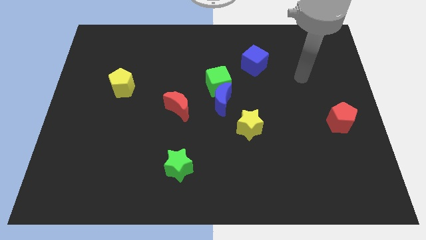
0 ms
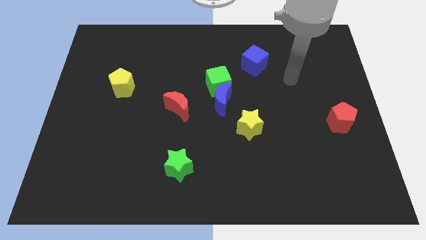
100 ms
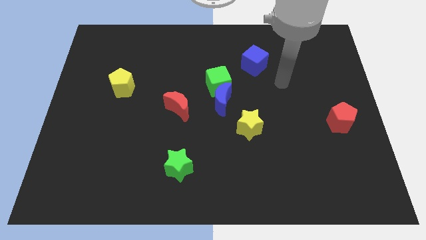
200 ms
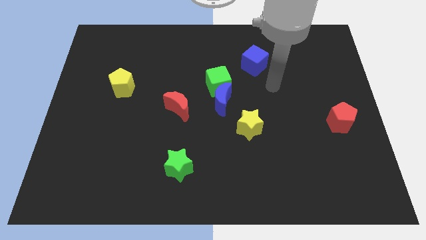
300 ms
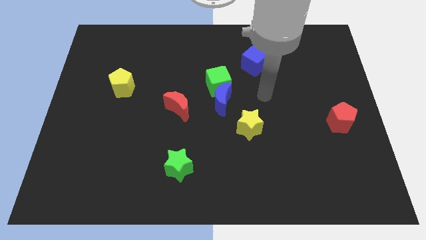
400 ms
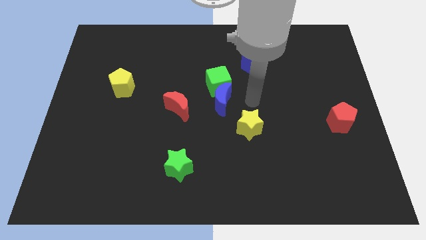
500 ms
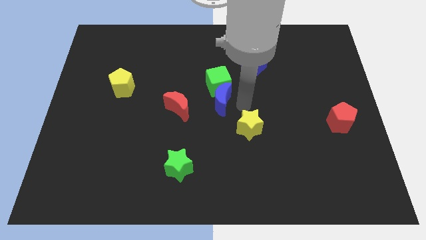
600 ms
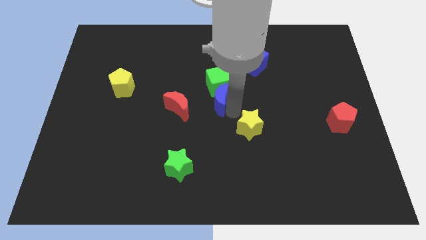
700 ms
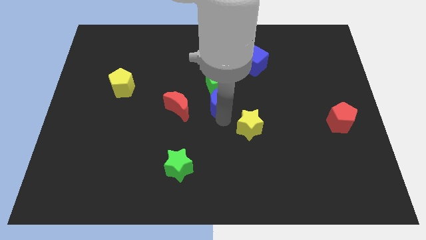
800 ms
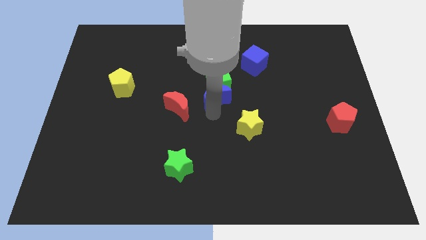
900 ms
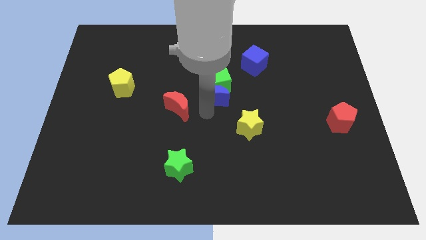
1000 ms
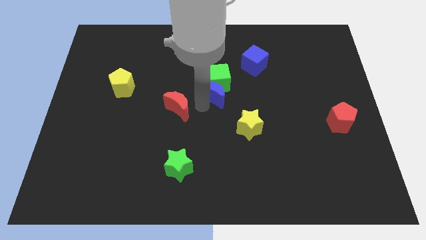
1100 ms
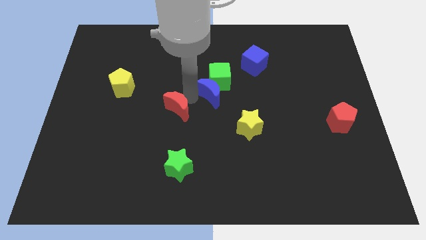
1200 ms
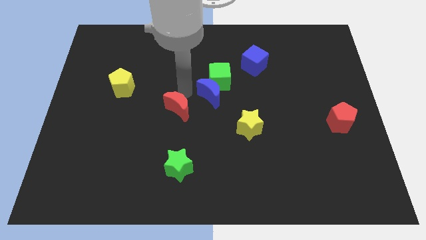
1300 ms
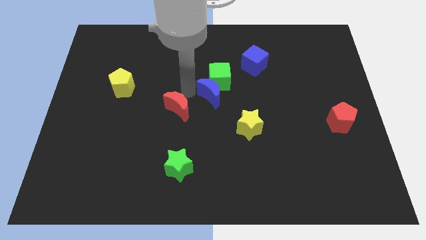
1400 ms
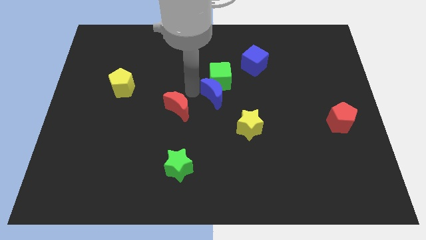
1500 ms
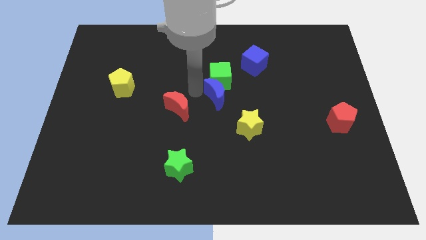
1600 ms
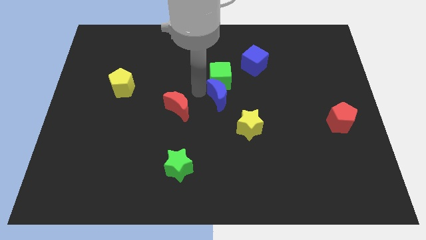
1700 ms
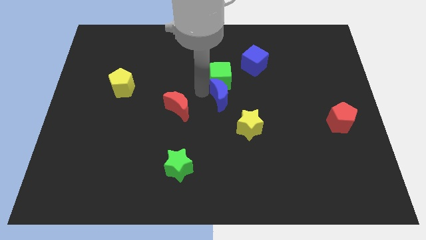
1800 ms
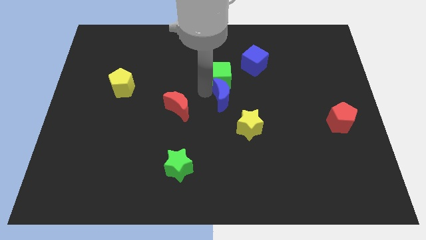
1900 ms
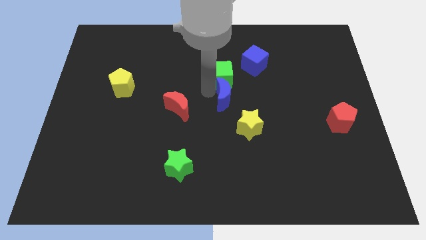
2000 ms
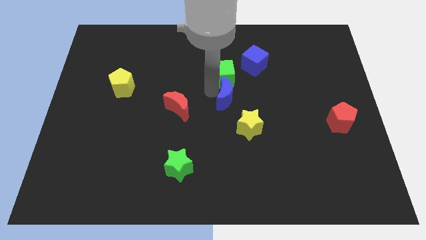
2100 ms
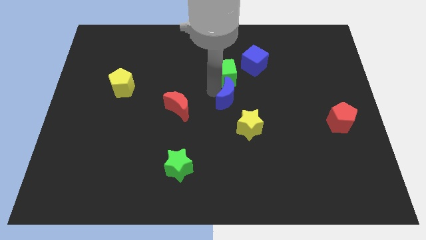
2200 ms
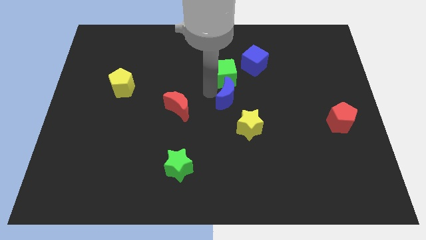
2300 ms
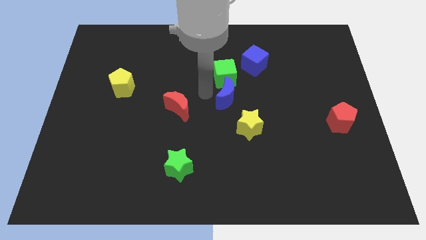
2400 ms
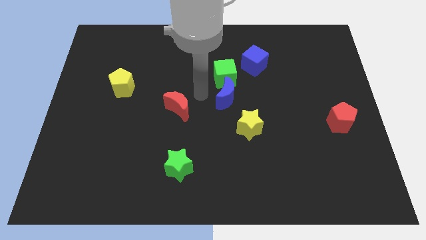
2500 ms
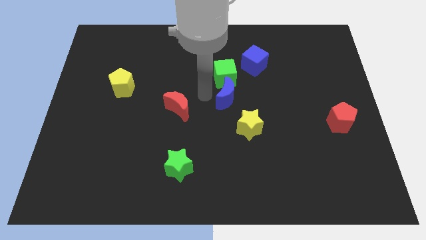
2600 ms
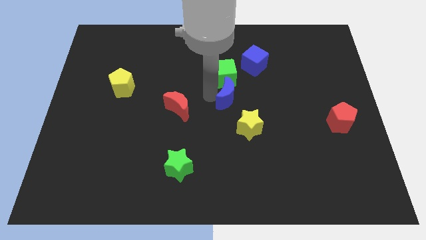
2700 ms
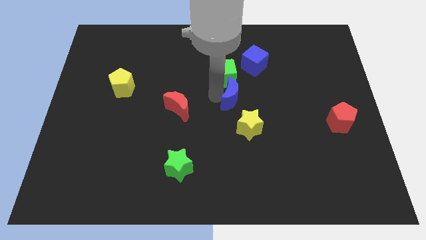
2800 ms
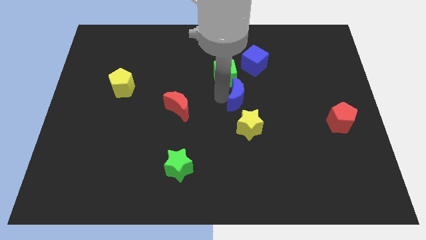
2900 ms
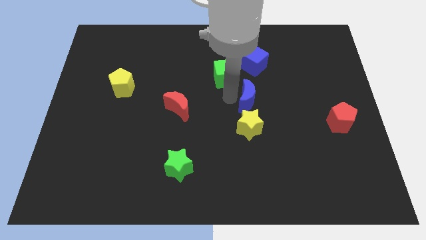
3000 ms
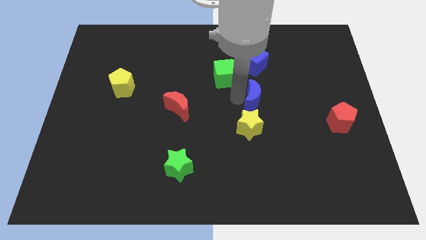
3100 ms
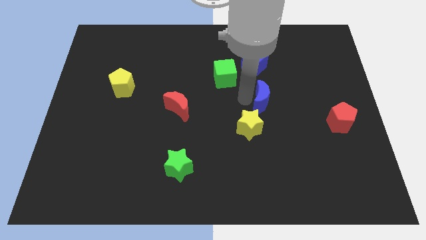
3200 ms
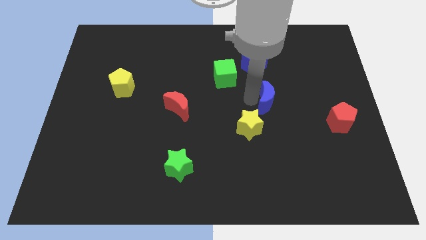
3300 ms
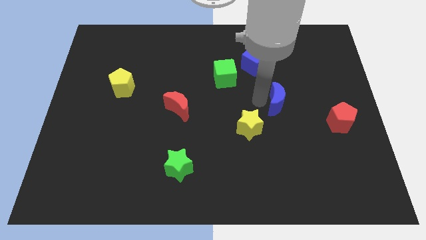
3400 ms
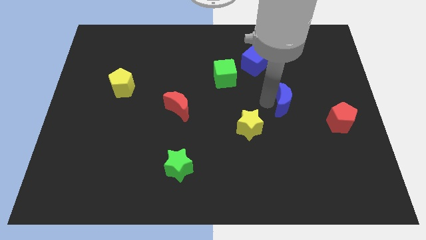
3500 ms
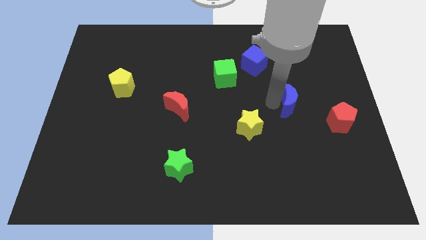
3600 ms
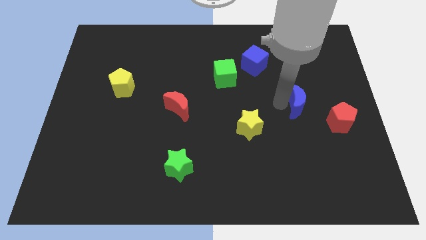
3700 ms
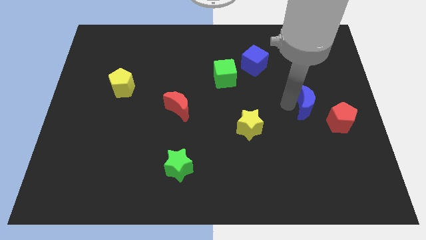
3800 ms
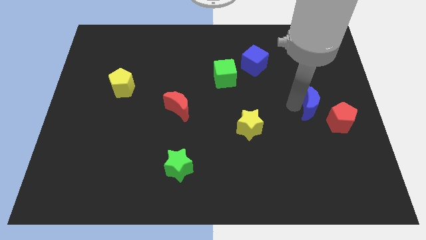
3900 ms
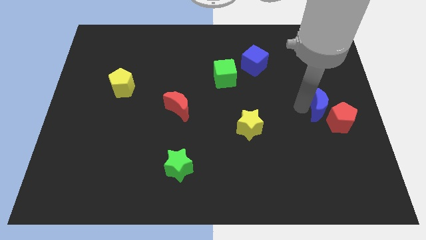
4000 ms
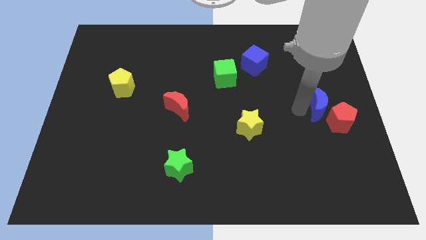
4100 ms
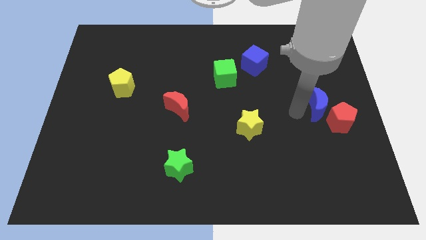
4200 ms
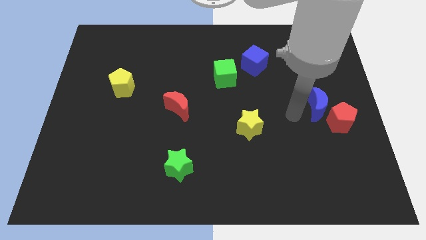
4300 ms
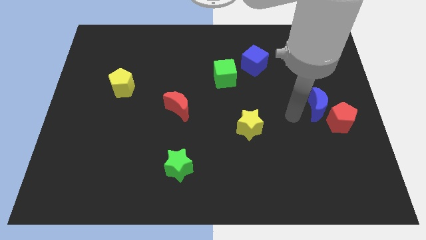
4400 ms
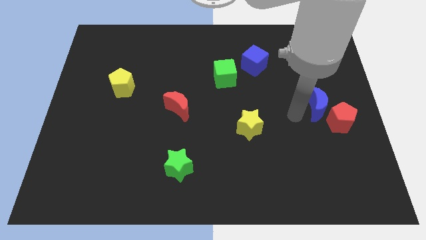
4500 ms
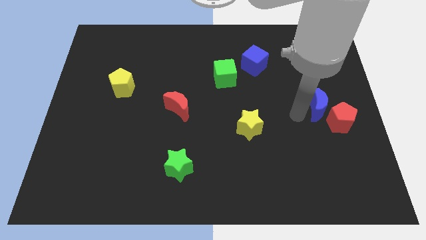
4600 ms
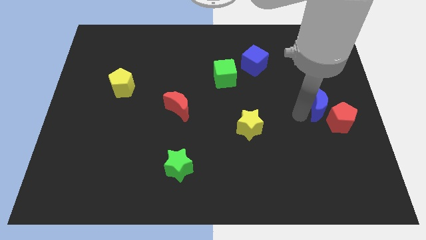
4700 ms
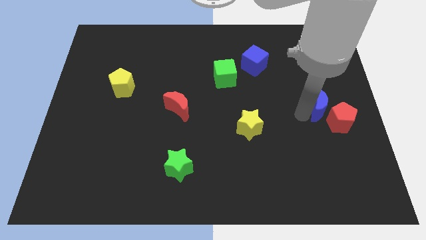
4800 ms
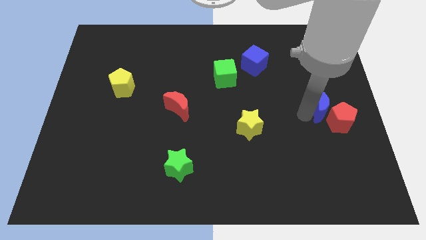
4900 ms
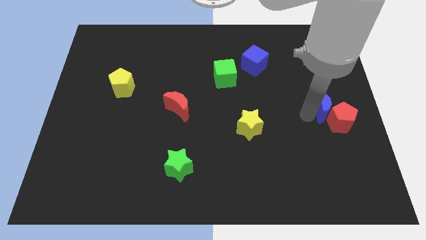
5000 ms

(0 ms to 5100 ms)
move the blue moon to the right side of the board

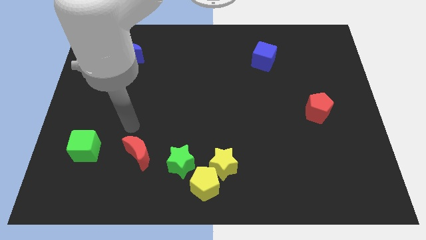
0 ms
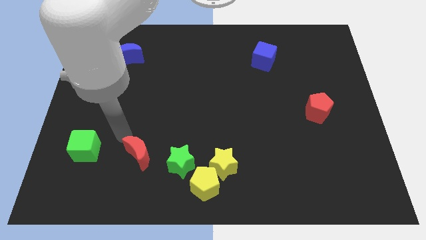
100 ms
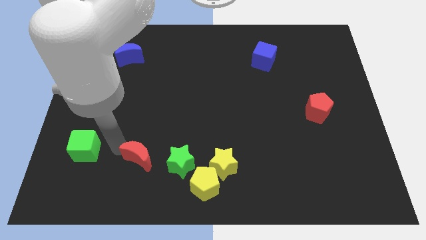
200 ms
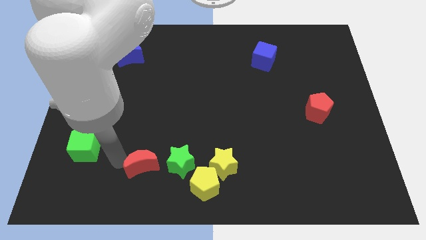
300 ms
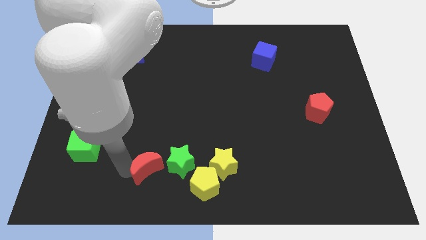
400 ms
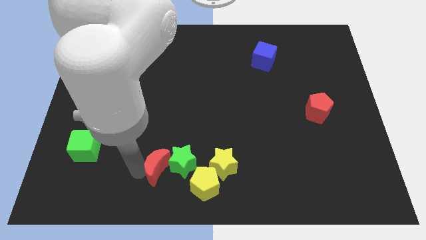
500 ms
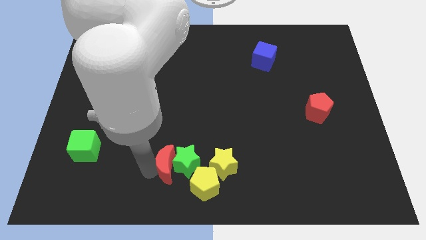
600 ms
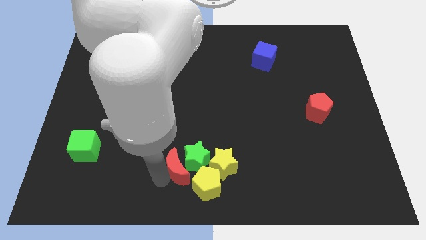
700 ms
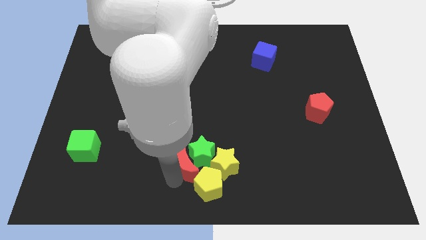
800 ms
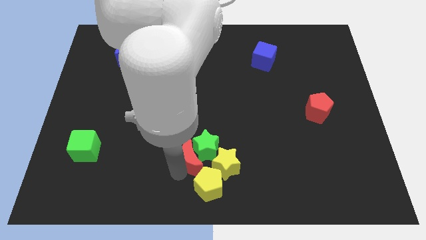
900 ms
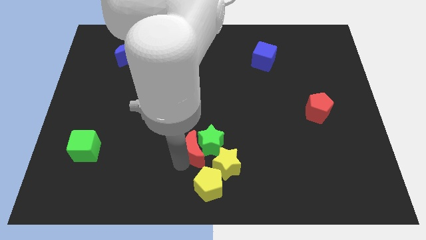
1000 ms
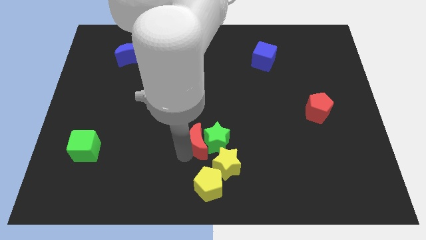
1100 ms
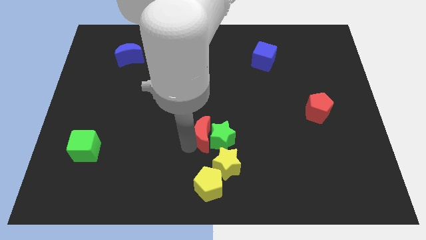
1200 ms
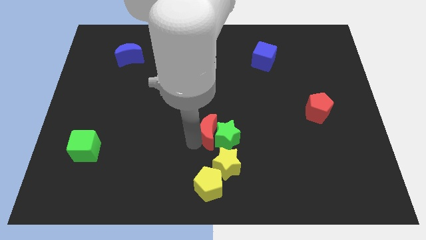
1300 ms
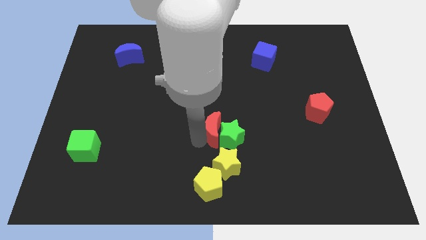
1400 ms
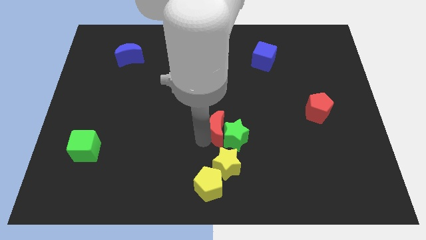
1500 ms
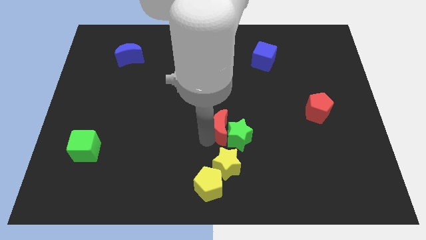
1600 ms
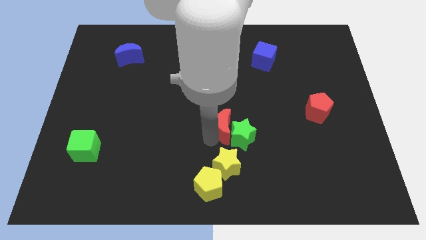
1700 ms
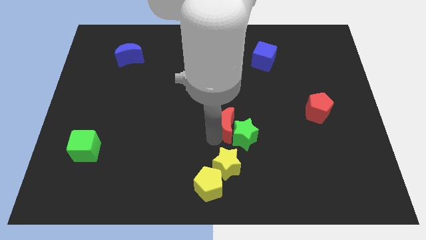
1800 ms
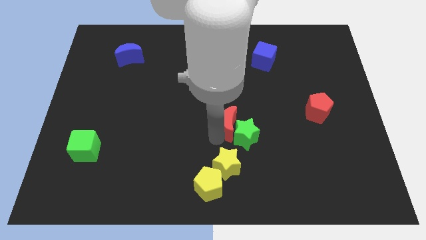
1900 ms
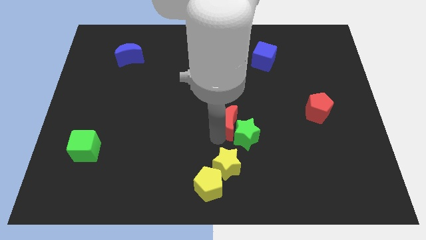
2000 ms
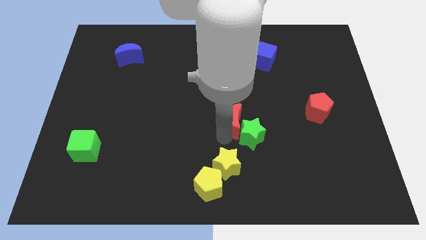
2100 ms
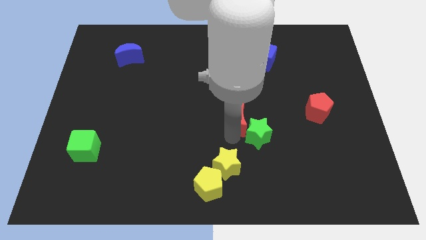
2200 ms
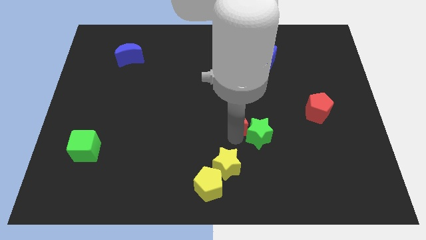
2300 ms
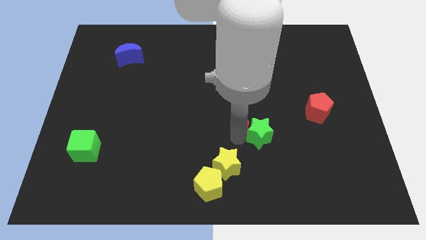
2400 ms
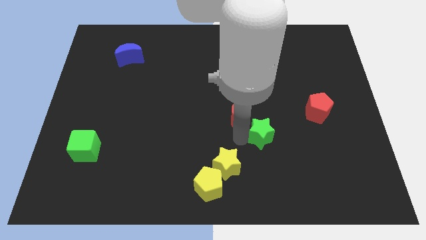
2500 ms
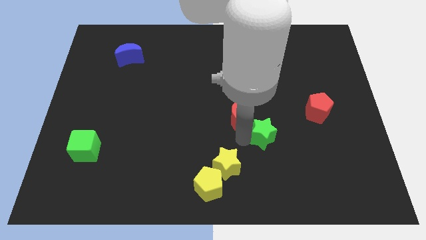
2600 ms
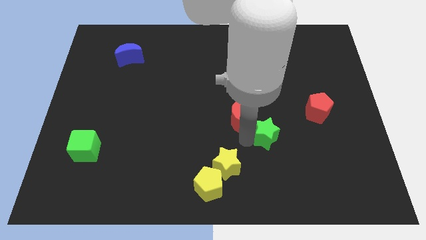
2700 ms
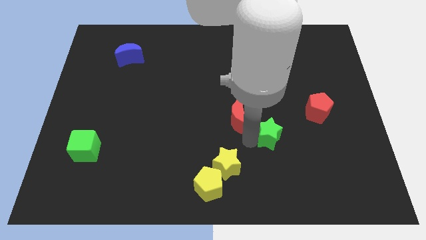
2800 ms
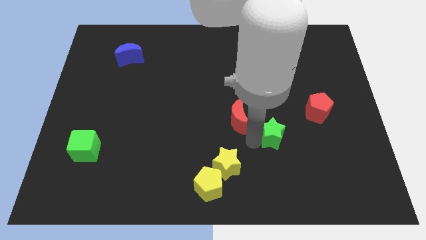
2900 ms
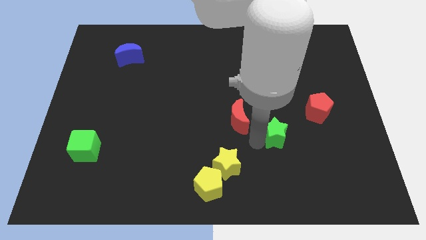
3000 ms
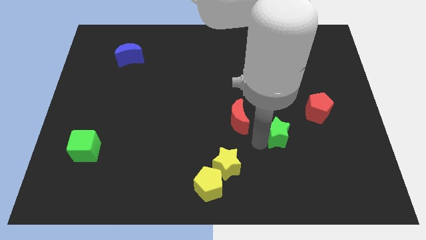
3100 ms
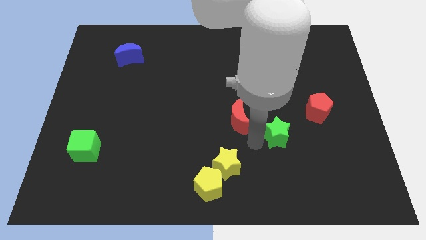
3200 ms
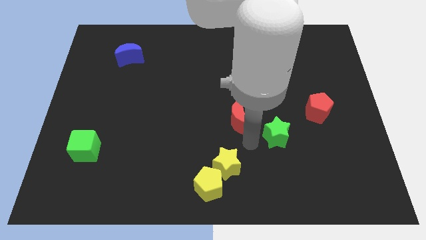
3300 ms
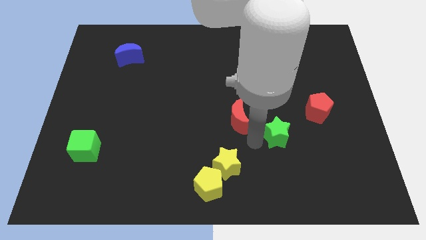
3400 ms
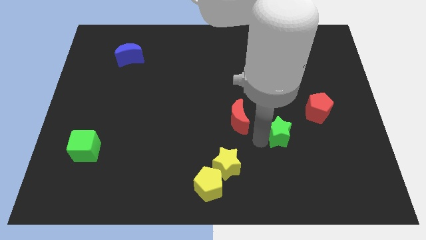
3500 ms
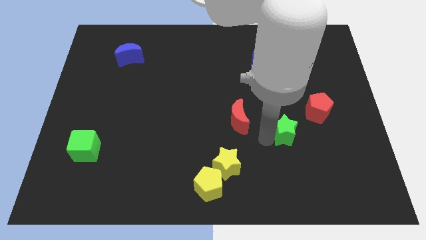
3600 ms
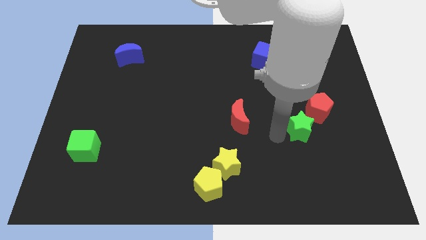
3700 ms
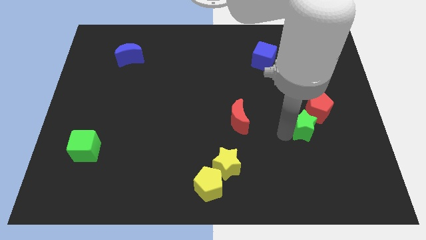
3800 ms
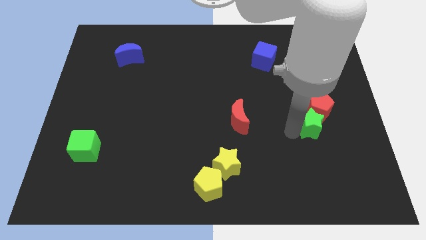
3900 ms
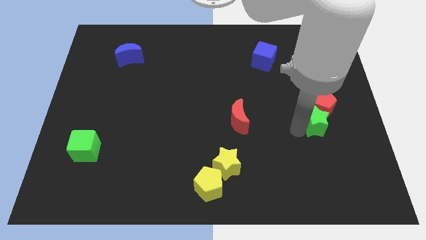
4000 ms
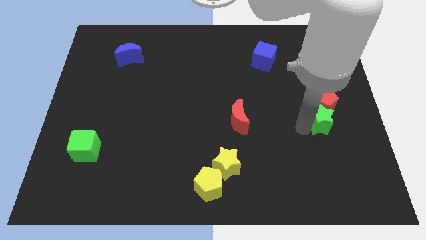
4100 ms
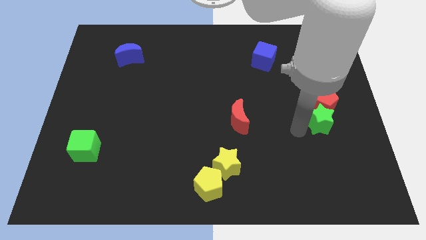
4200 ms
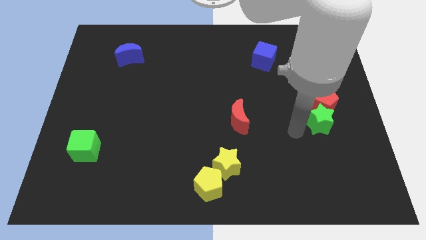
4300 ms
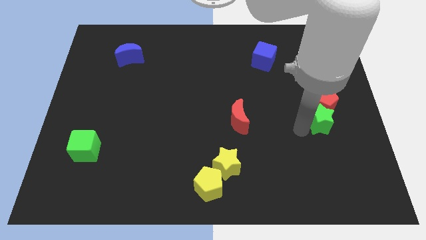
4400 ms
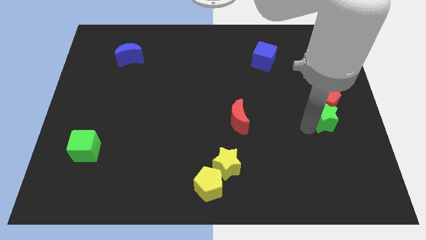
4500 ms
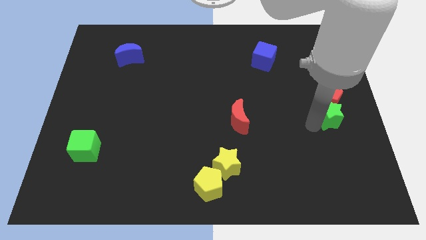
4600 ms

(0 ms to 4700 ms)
move the green star to the right side
